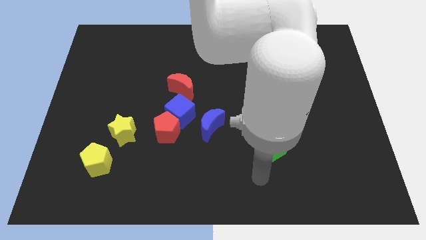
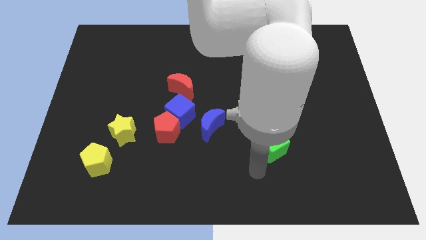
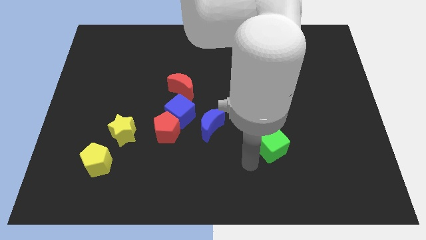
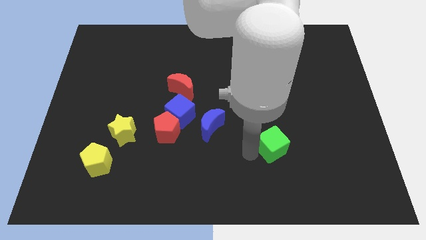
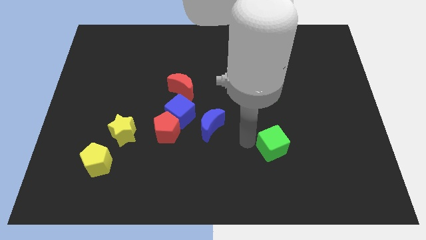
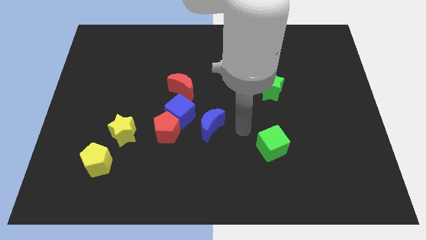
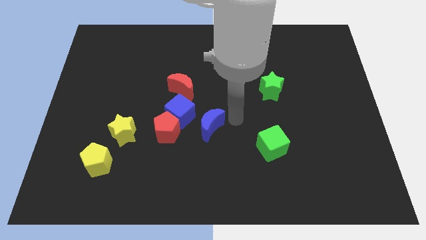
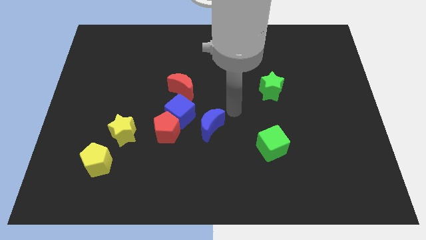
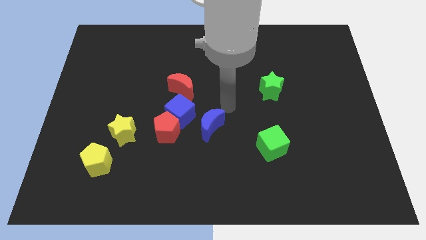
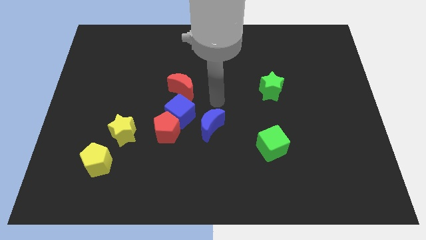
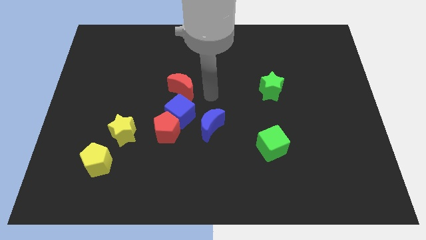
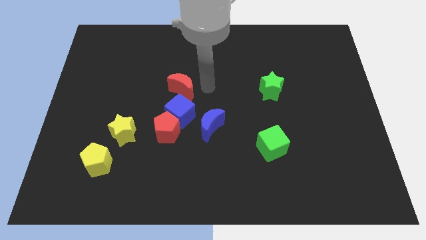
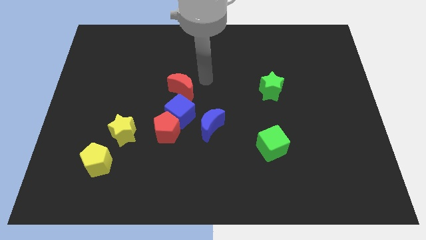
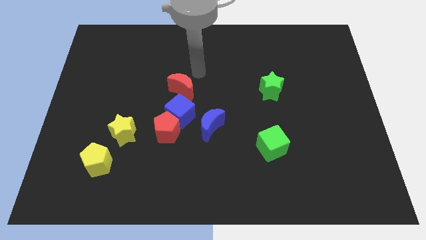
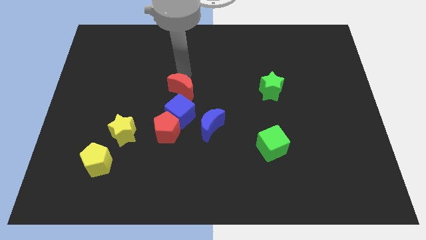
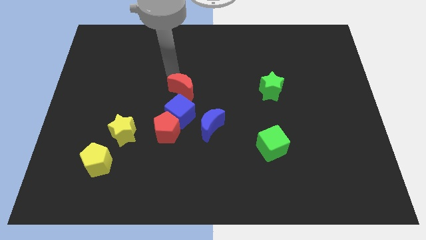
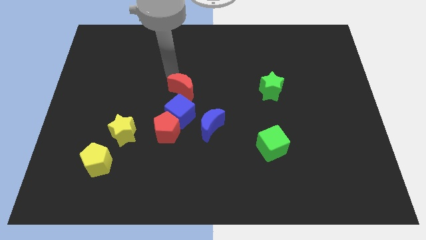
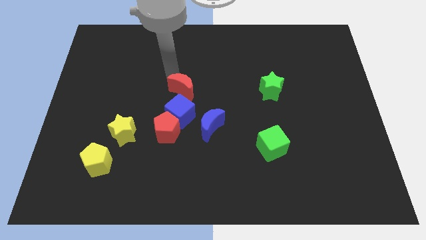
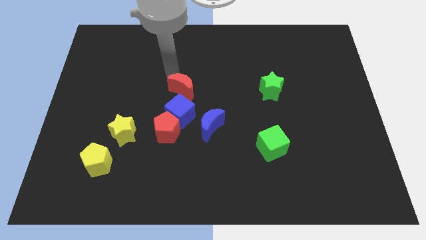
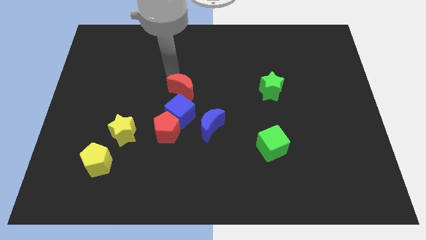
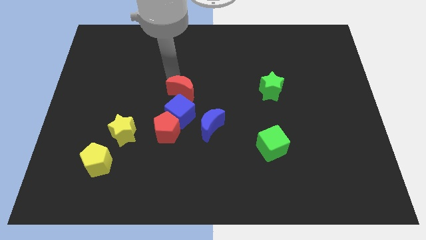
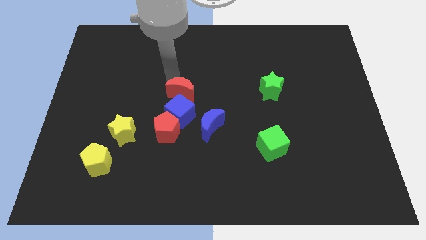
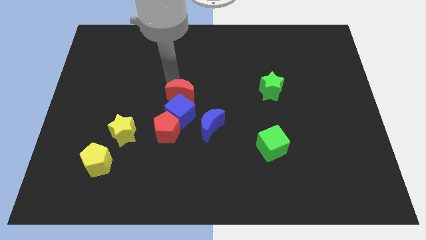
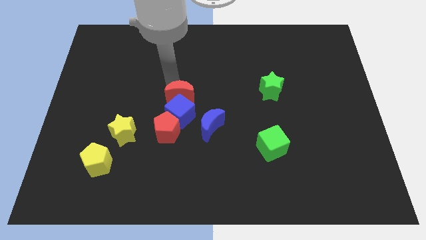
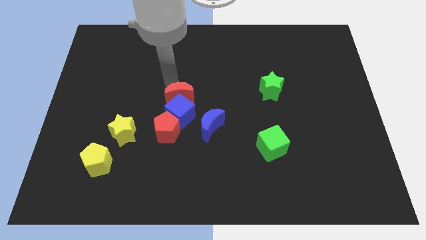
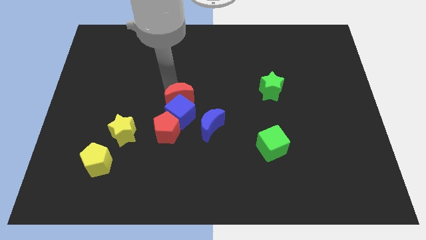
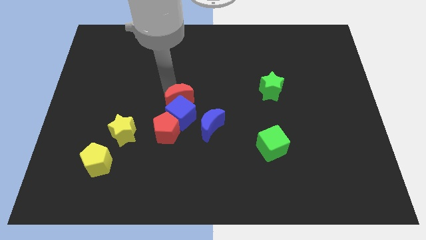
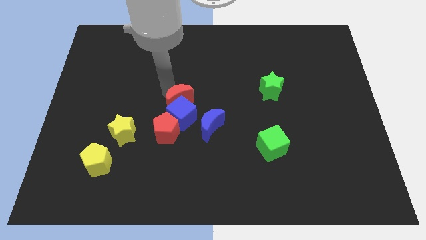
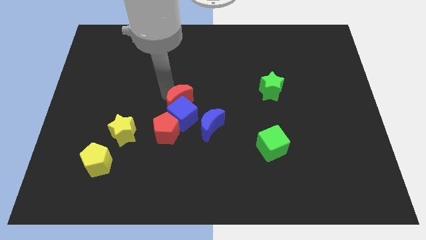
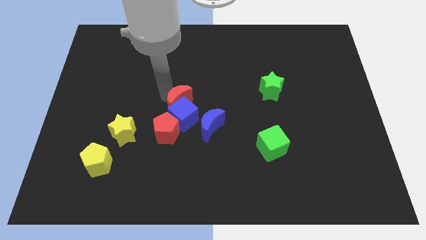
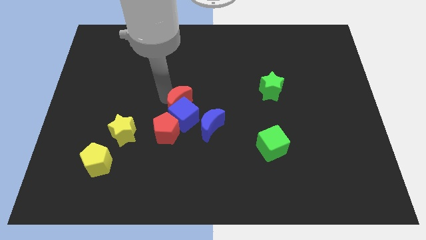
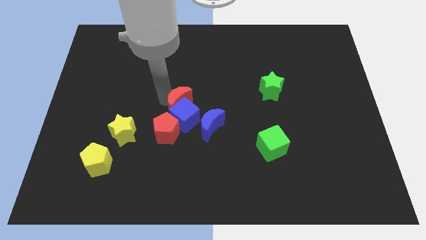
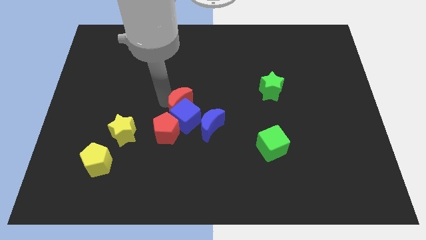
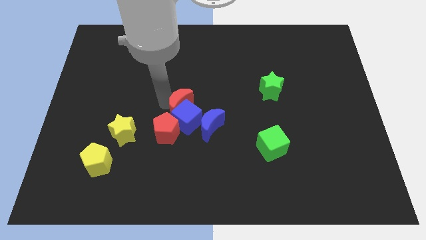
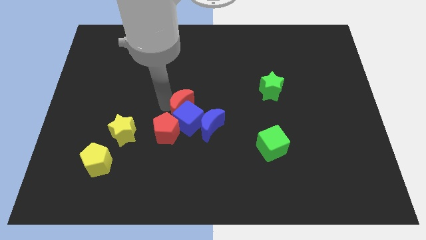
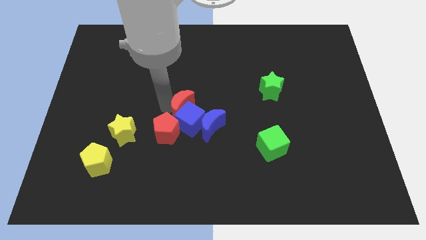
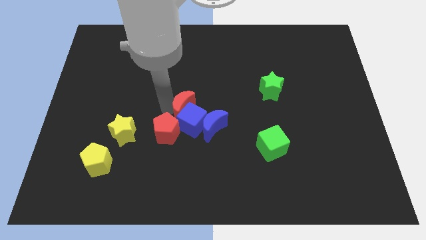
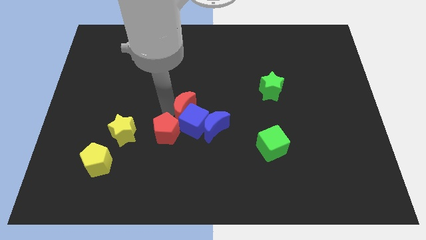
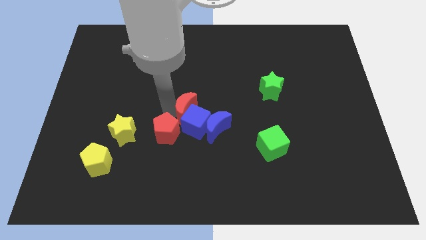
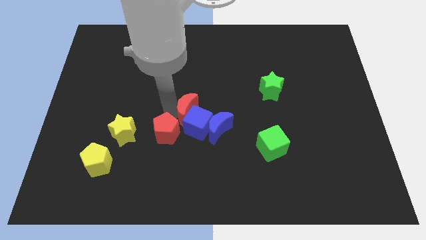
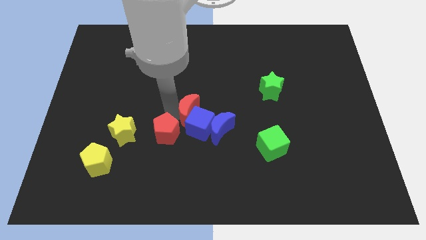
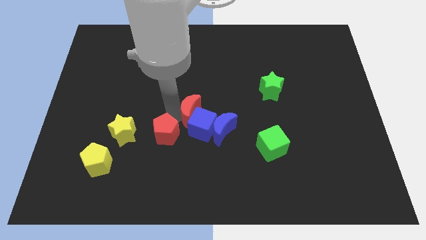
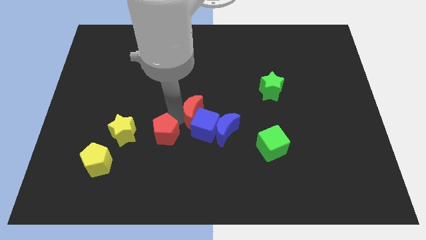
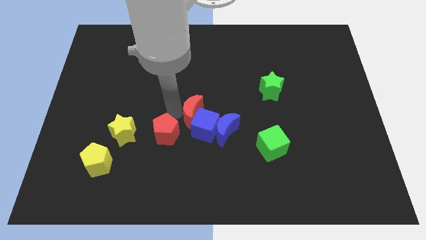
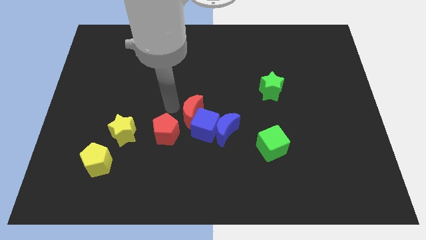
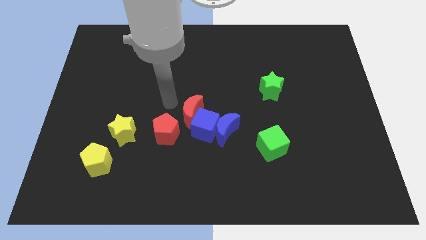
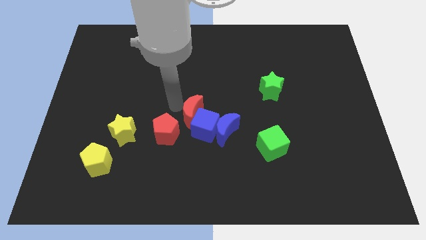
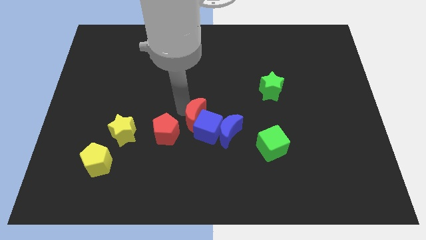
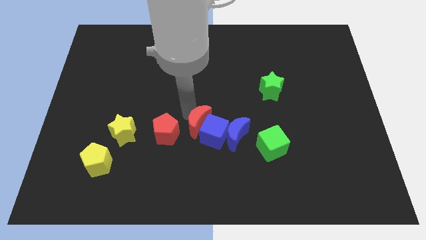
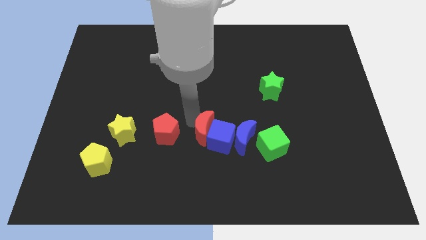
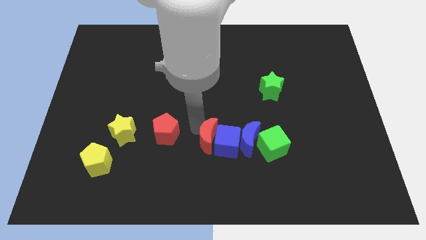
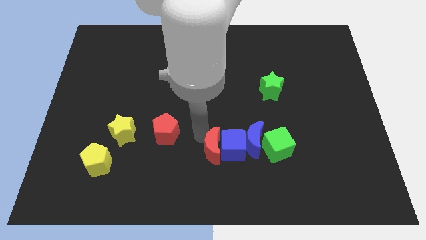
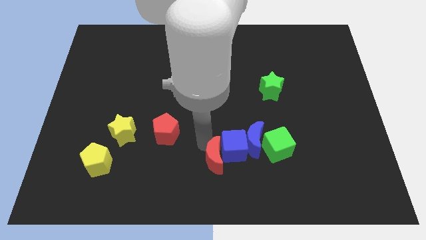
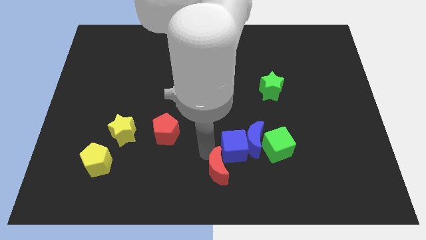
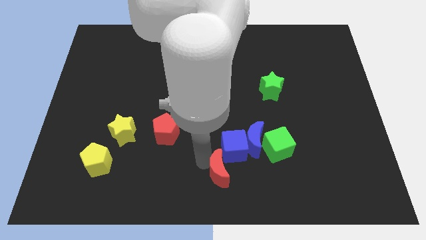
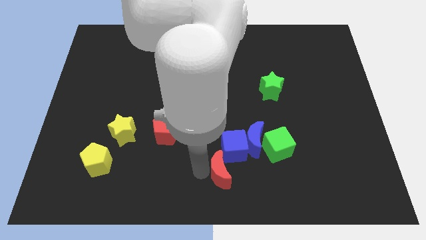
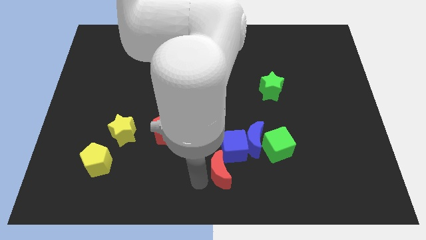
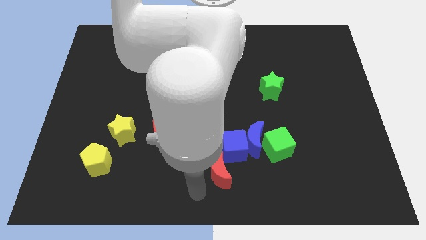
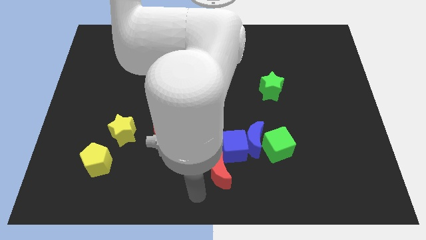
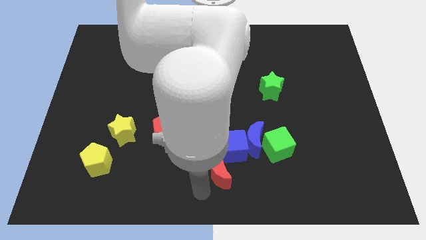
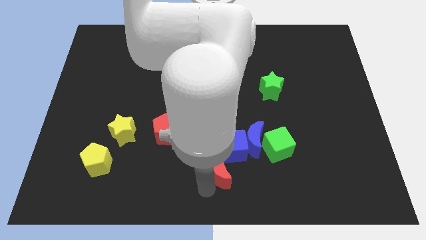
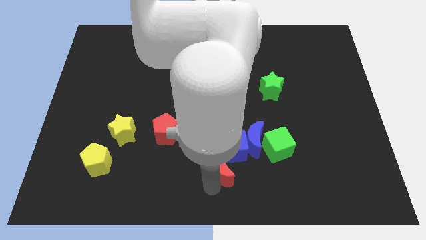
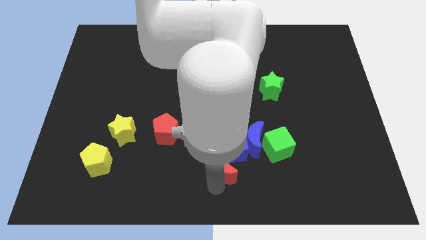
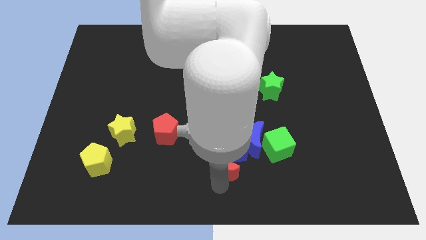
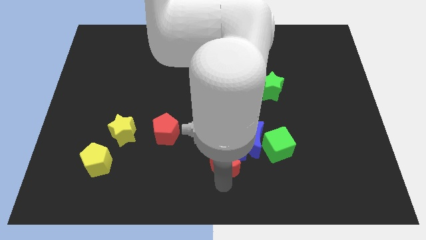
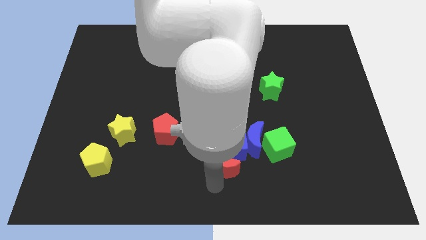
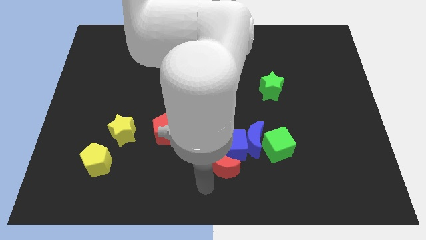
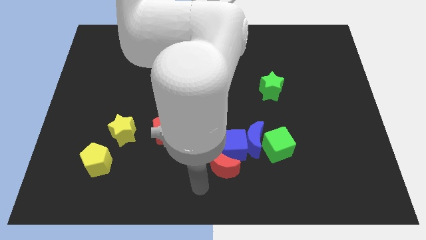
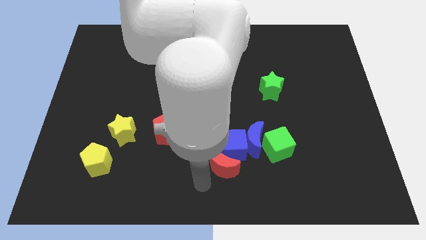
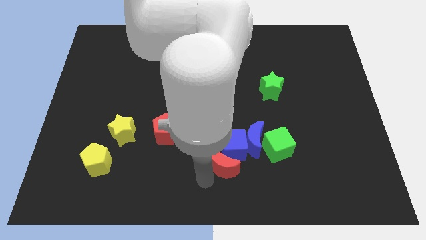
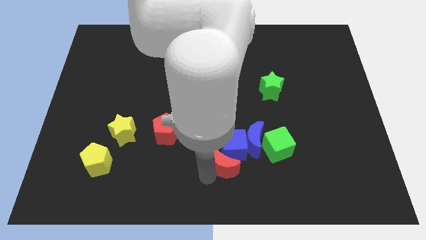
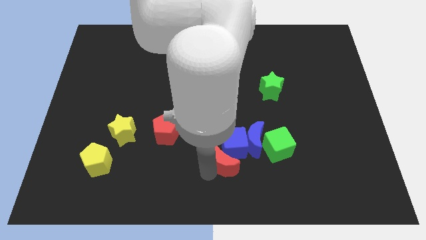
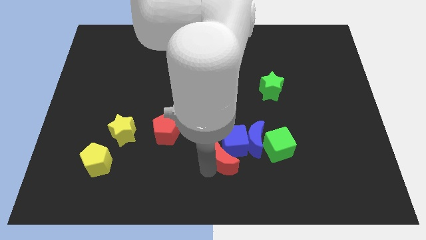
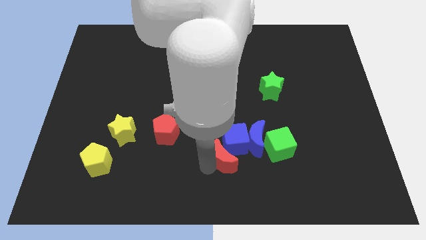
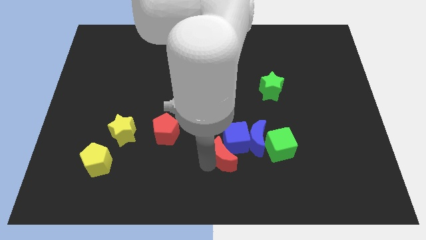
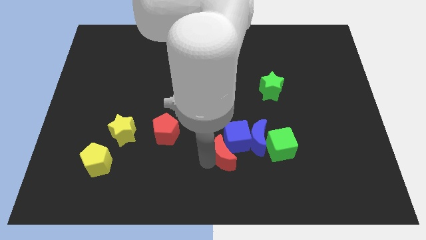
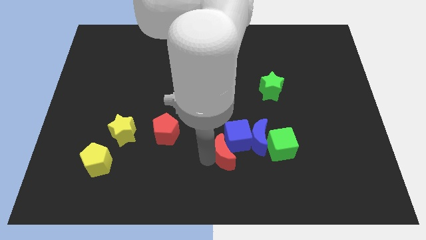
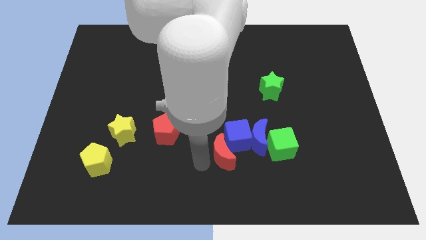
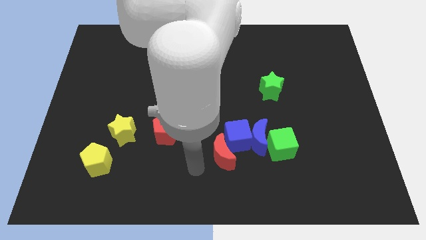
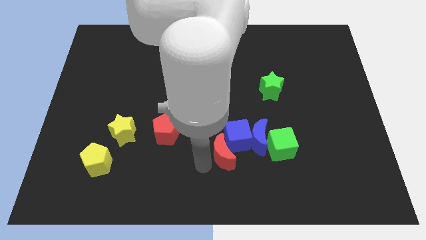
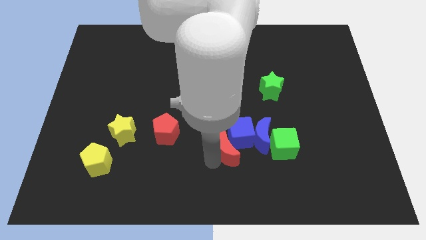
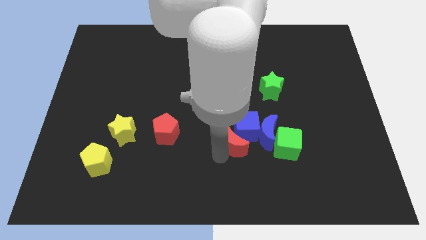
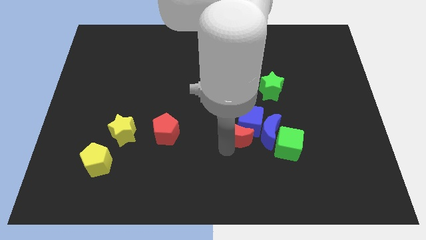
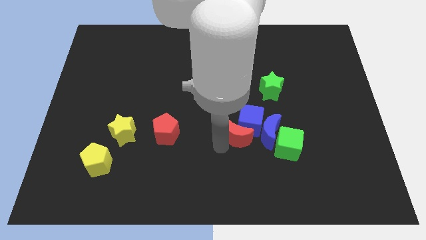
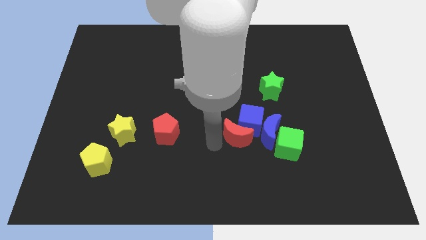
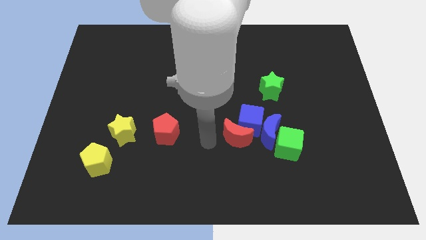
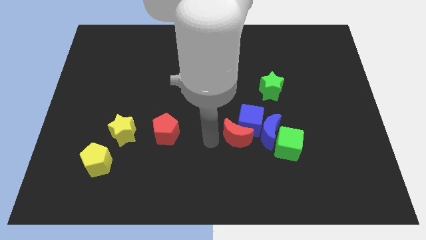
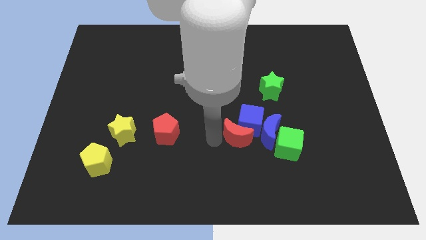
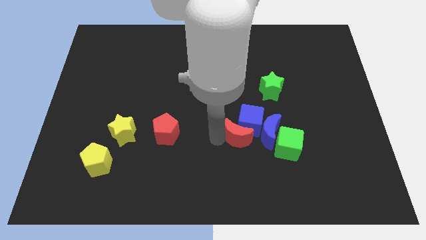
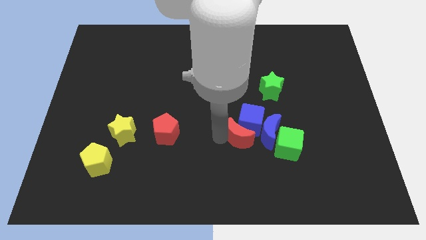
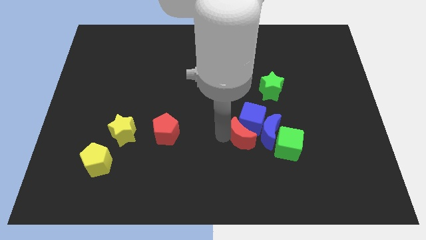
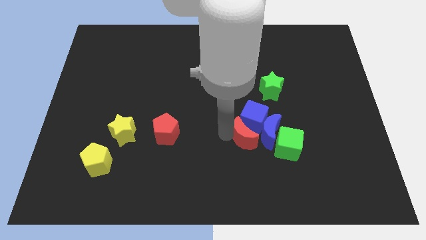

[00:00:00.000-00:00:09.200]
slide the red moon to the blue moon
